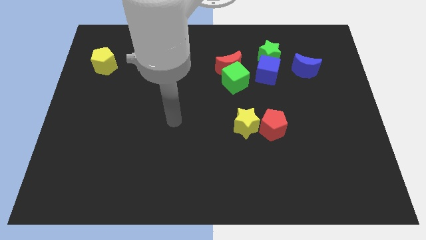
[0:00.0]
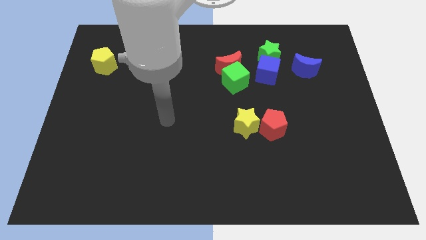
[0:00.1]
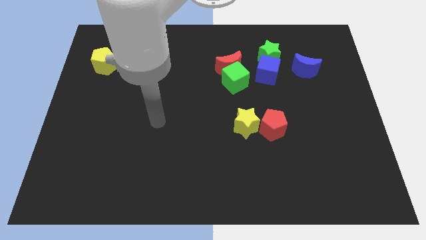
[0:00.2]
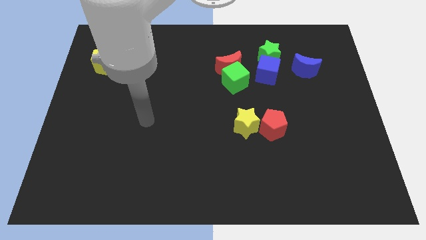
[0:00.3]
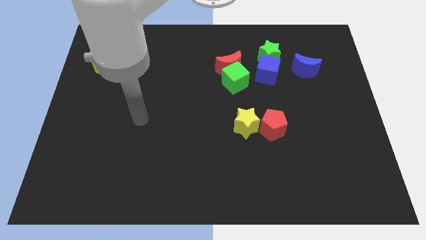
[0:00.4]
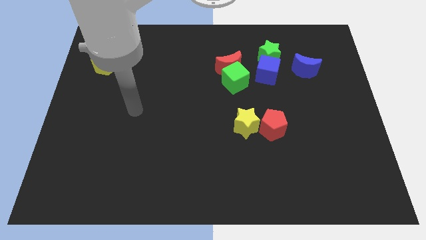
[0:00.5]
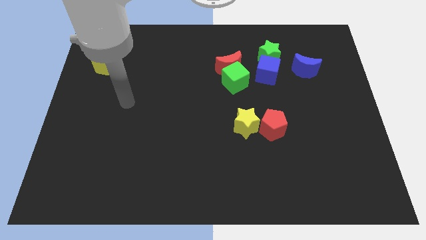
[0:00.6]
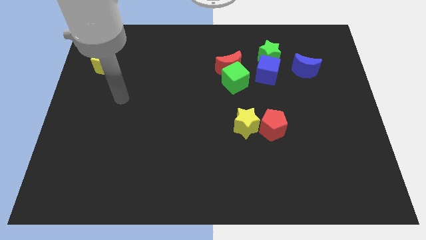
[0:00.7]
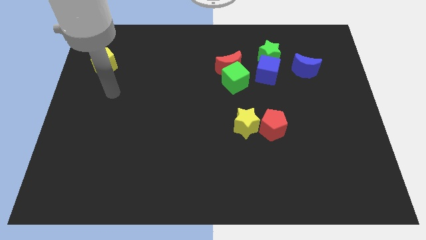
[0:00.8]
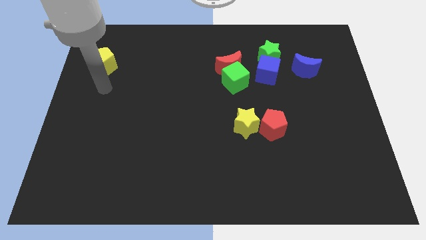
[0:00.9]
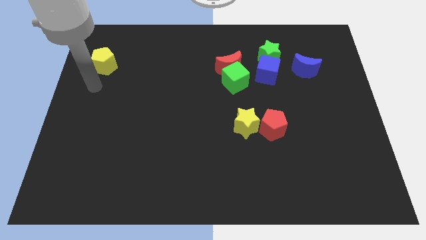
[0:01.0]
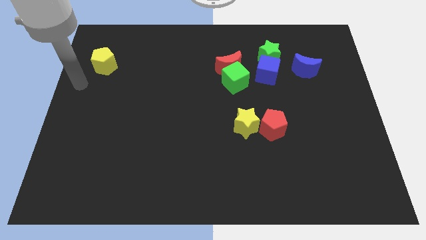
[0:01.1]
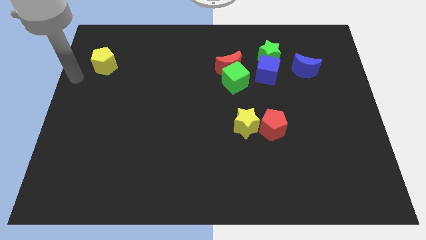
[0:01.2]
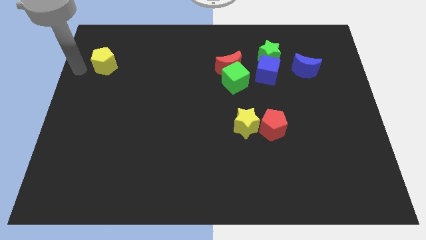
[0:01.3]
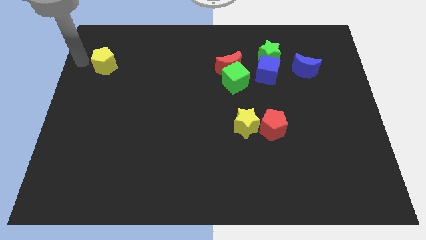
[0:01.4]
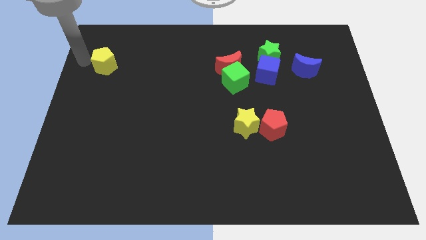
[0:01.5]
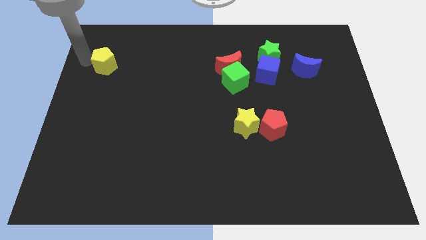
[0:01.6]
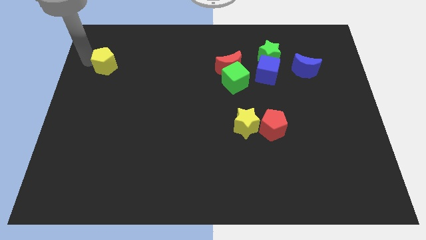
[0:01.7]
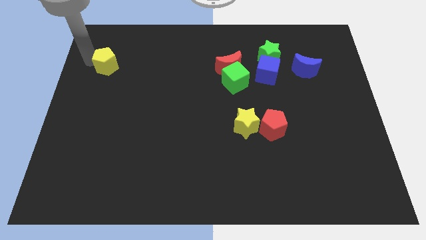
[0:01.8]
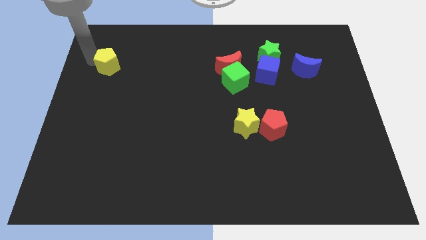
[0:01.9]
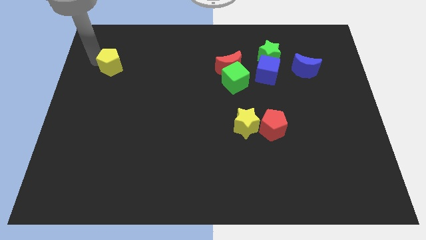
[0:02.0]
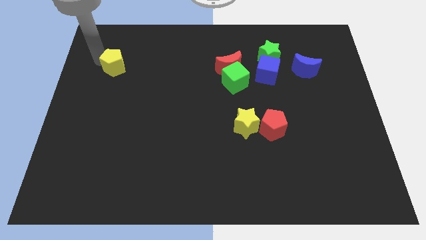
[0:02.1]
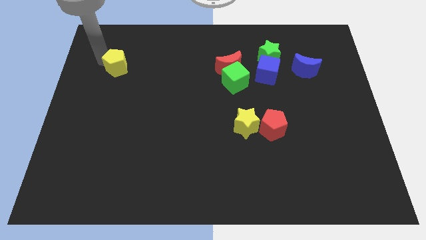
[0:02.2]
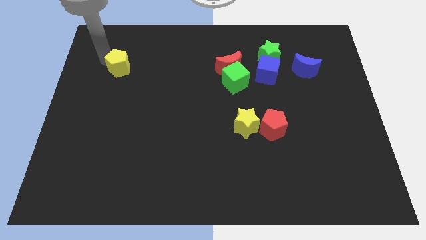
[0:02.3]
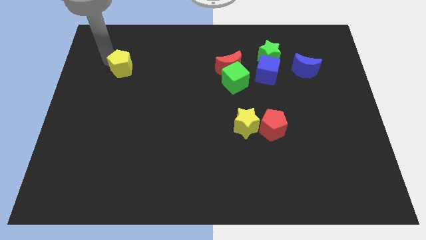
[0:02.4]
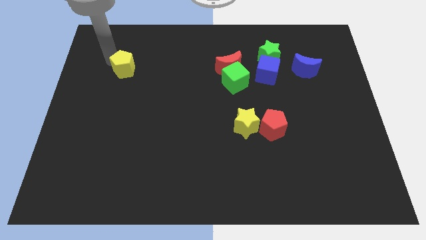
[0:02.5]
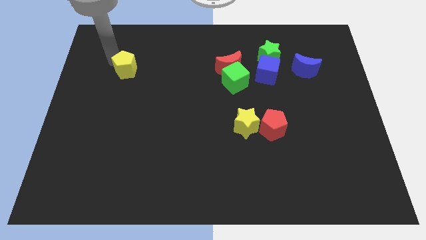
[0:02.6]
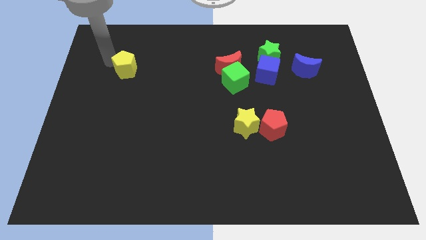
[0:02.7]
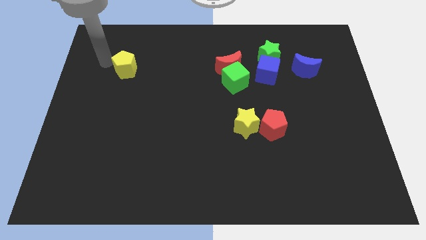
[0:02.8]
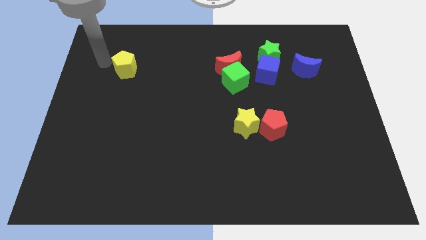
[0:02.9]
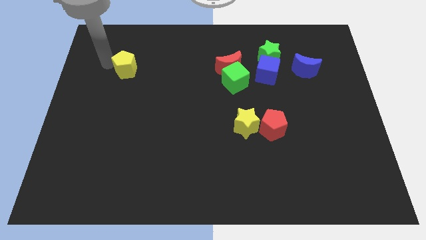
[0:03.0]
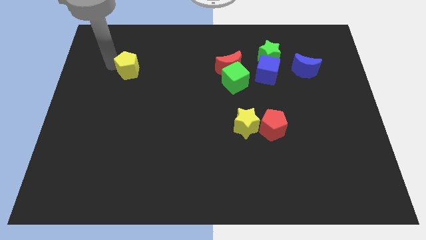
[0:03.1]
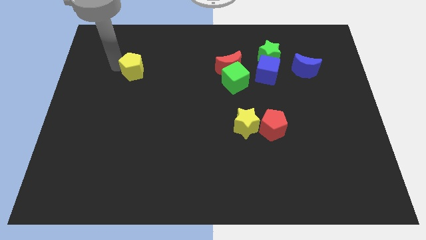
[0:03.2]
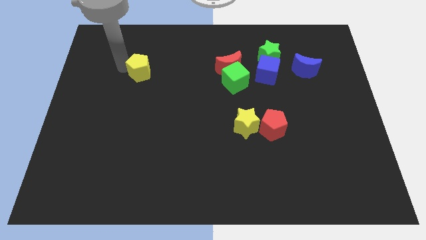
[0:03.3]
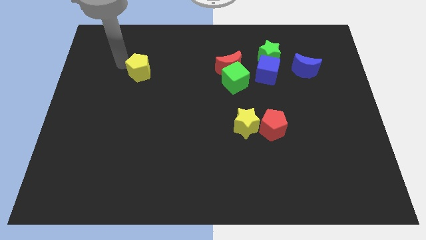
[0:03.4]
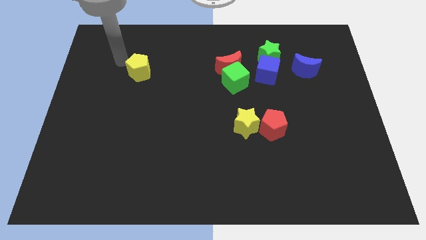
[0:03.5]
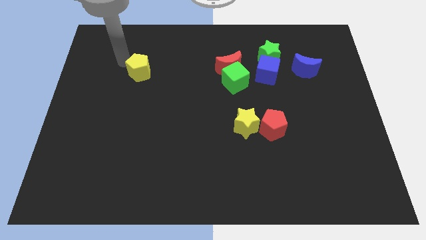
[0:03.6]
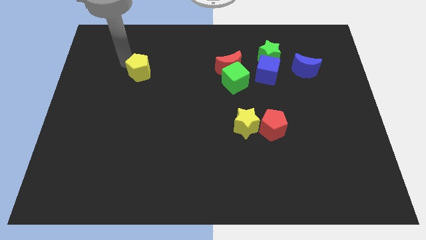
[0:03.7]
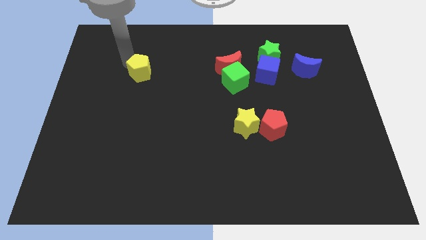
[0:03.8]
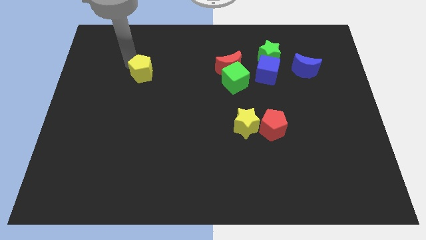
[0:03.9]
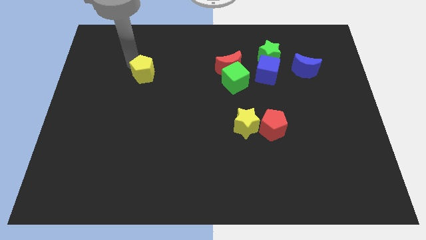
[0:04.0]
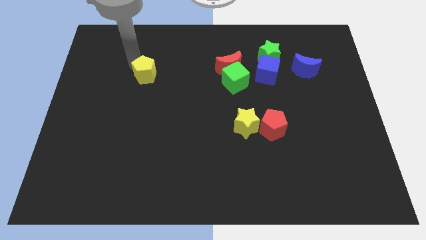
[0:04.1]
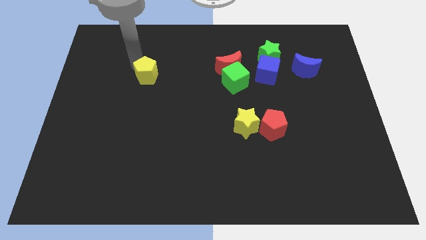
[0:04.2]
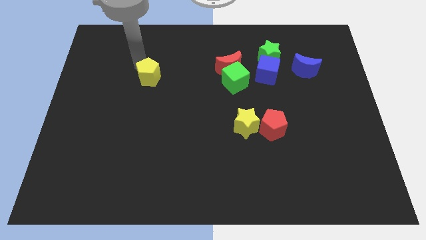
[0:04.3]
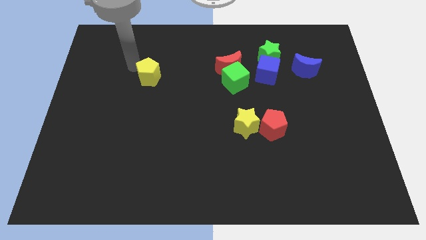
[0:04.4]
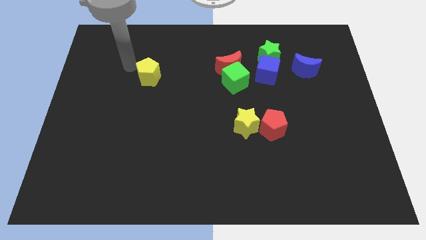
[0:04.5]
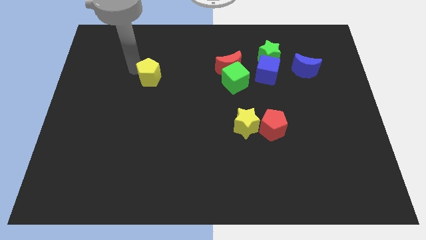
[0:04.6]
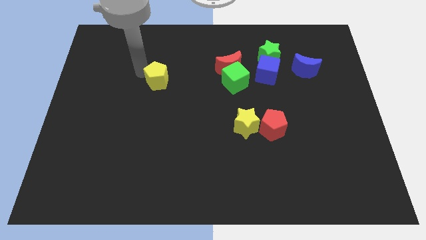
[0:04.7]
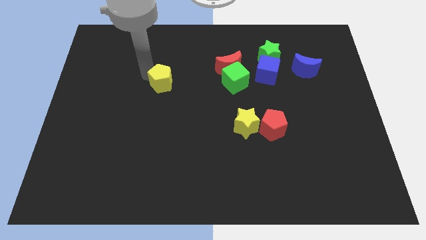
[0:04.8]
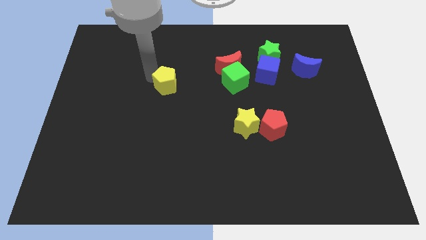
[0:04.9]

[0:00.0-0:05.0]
slide the yellow pentagon to the middle of the board

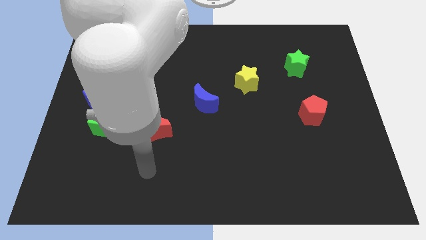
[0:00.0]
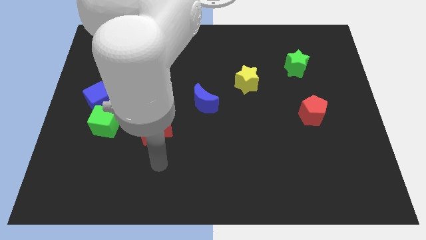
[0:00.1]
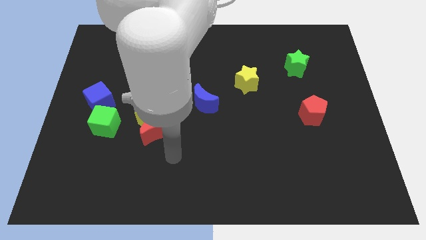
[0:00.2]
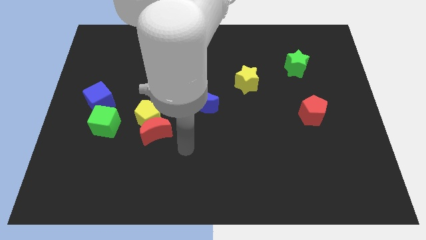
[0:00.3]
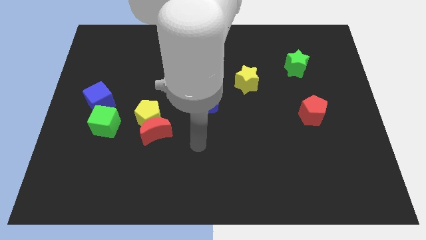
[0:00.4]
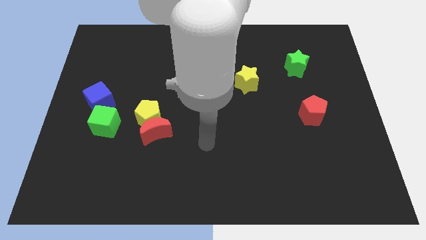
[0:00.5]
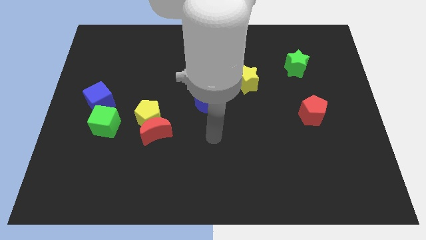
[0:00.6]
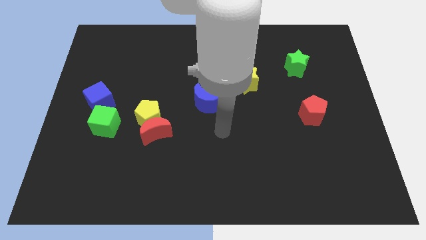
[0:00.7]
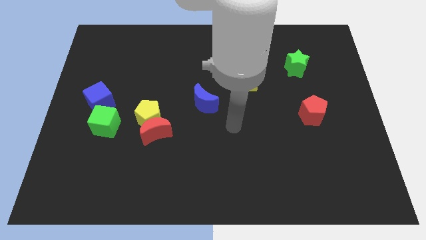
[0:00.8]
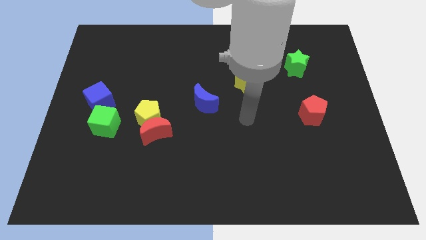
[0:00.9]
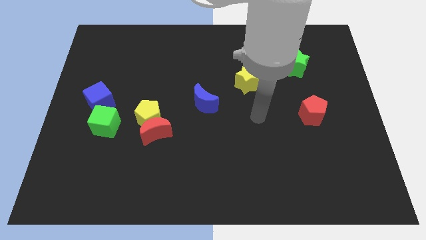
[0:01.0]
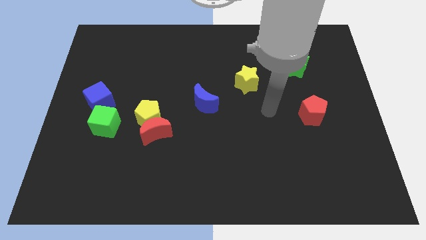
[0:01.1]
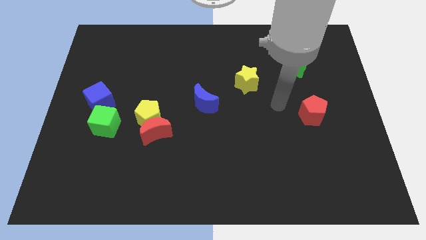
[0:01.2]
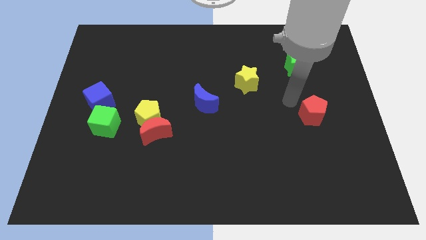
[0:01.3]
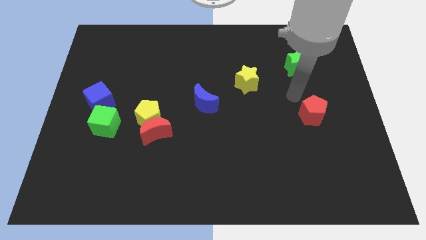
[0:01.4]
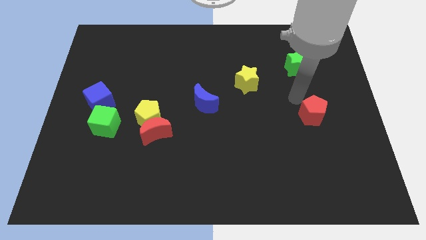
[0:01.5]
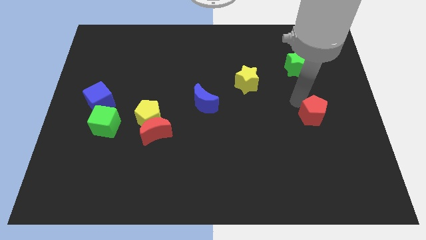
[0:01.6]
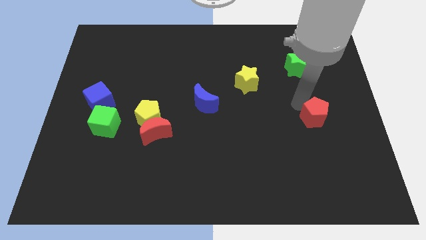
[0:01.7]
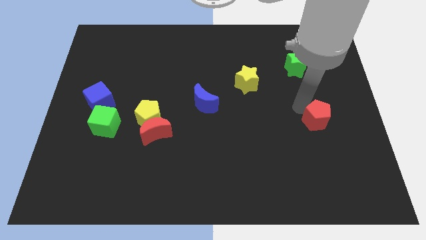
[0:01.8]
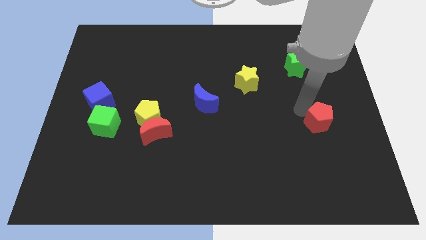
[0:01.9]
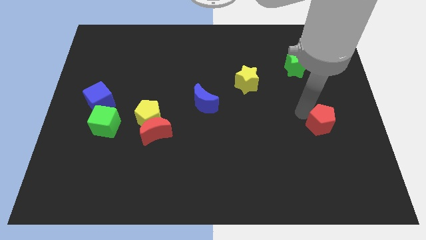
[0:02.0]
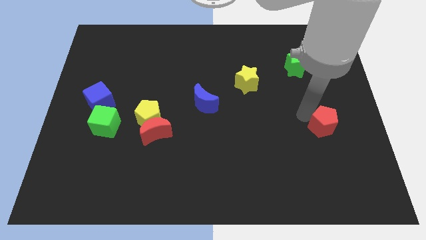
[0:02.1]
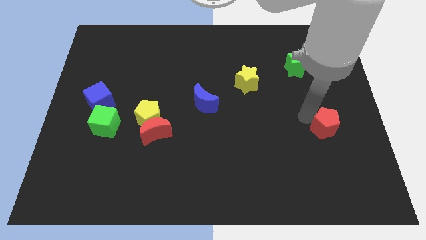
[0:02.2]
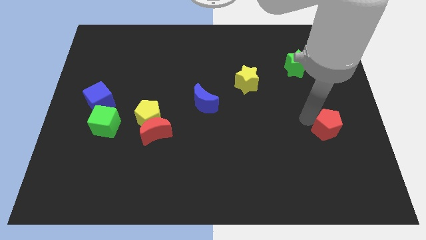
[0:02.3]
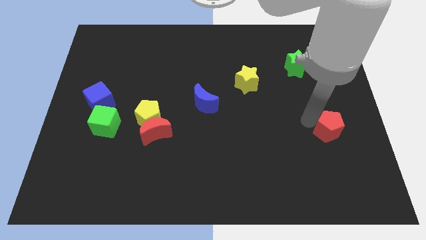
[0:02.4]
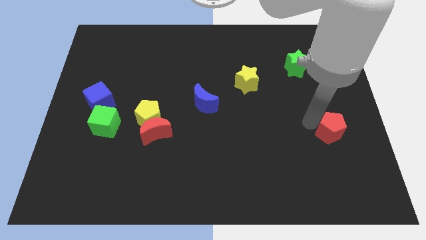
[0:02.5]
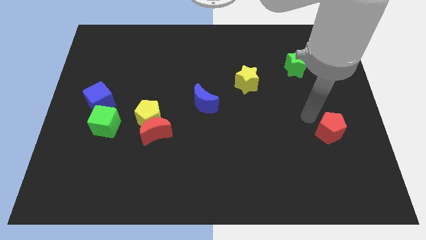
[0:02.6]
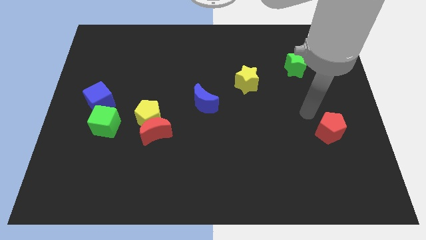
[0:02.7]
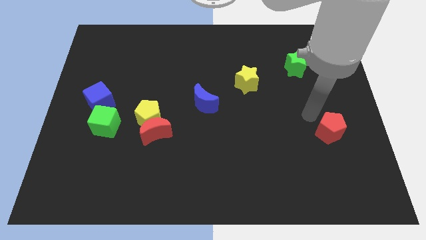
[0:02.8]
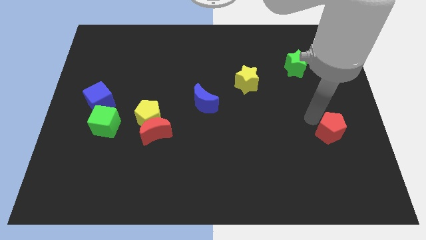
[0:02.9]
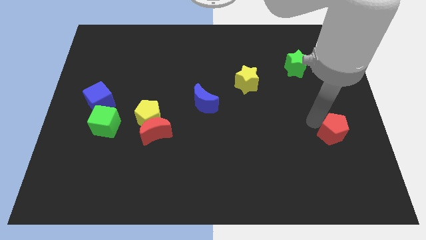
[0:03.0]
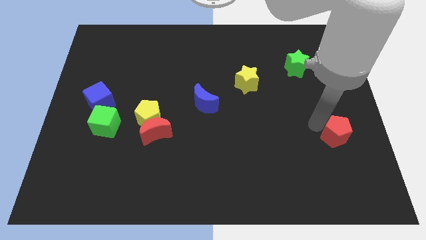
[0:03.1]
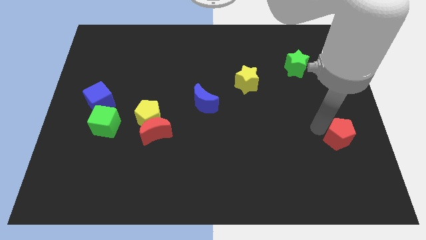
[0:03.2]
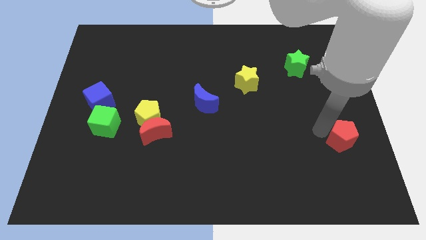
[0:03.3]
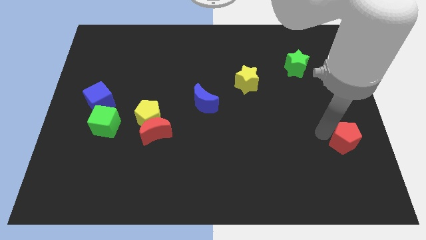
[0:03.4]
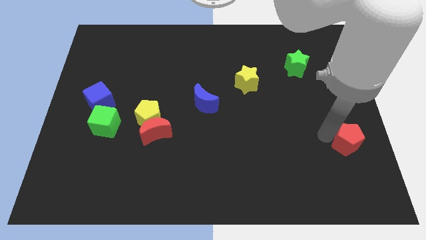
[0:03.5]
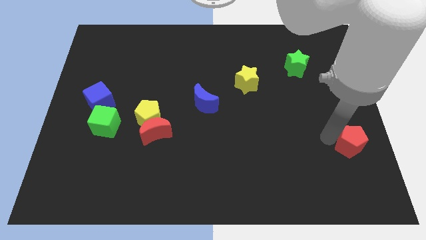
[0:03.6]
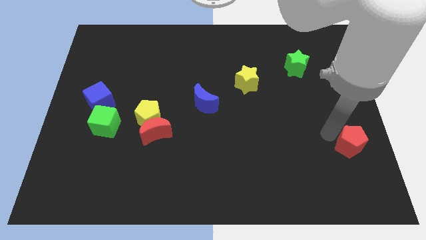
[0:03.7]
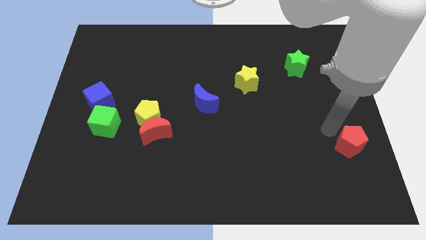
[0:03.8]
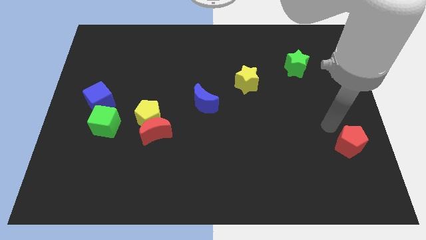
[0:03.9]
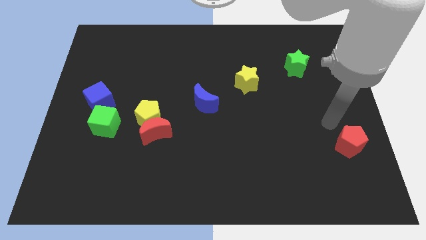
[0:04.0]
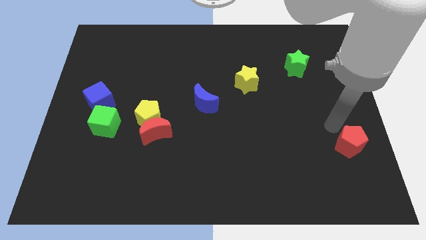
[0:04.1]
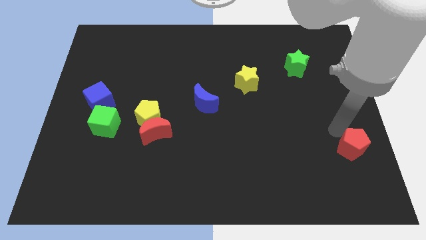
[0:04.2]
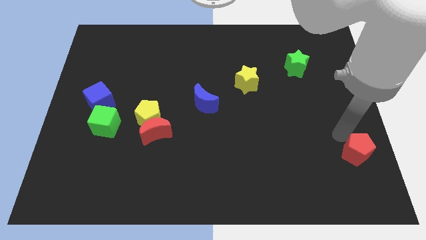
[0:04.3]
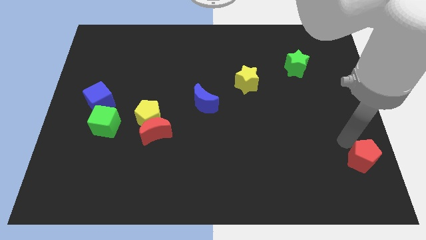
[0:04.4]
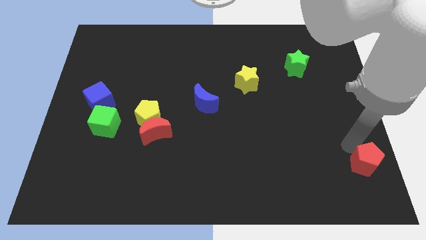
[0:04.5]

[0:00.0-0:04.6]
slide the red pentagon to the bottom right of the board
